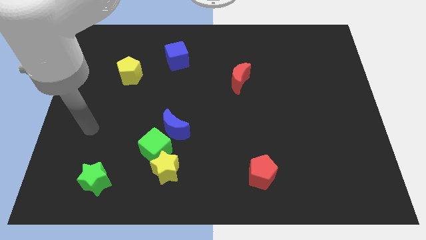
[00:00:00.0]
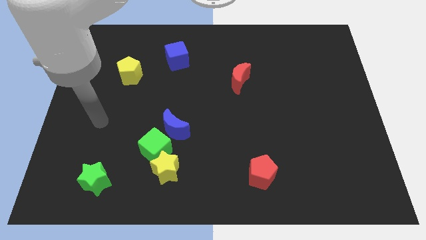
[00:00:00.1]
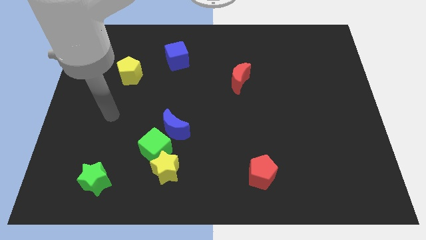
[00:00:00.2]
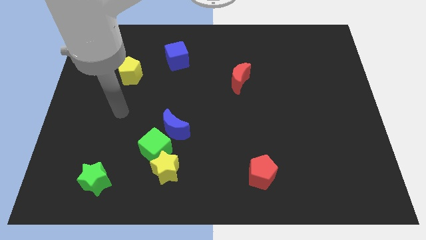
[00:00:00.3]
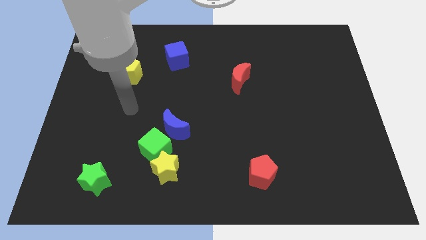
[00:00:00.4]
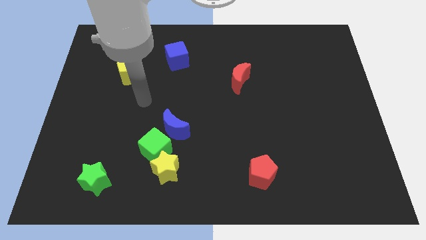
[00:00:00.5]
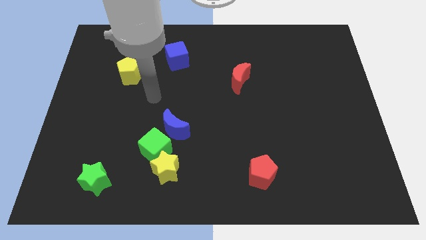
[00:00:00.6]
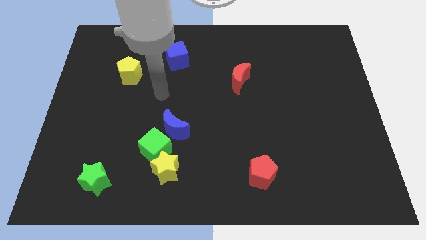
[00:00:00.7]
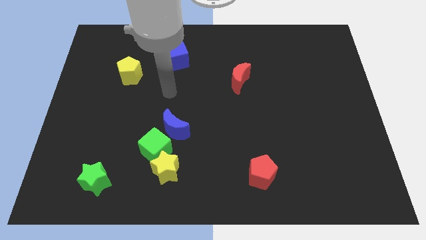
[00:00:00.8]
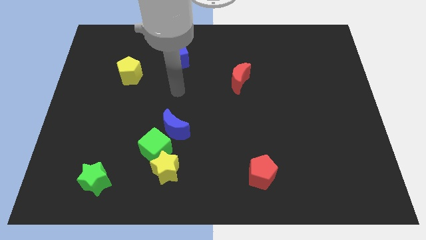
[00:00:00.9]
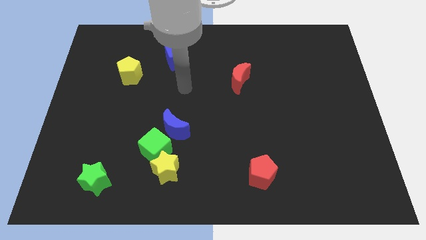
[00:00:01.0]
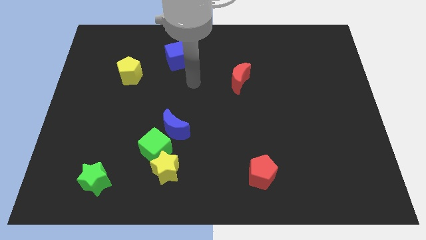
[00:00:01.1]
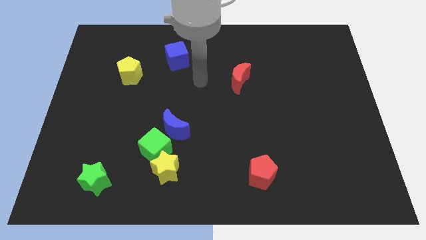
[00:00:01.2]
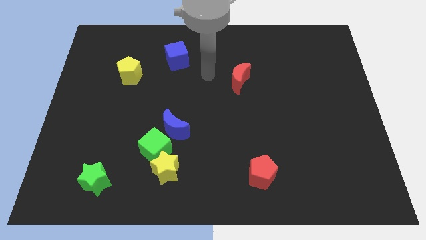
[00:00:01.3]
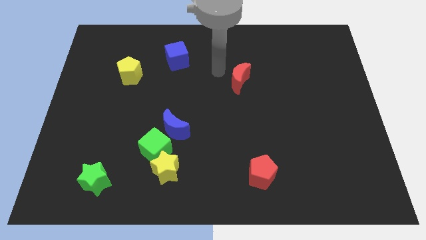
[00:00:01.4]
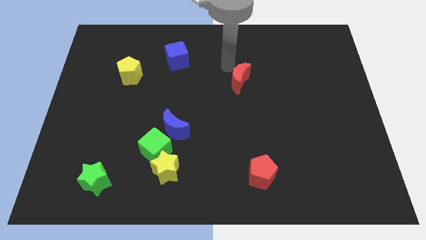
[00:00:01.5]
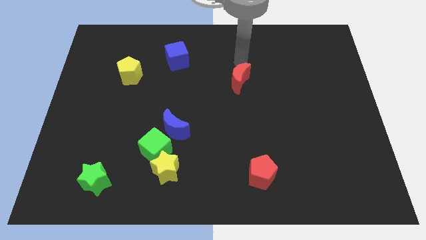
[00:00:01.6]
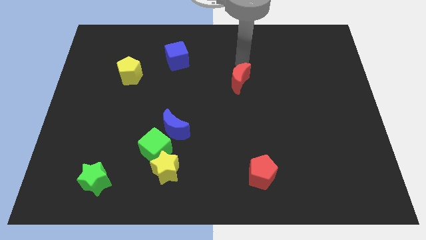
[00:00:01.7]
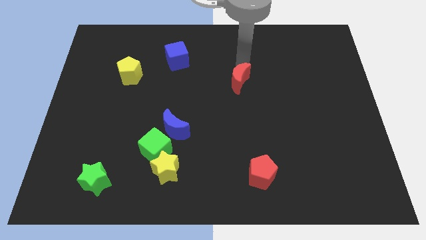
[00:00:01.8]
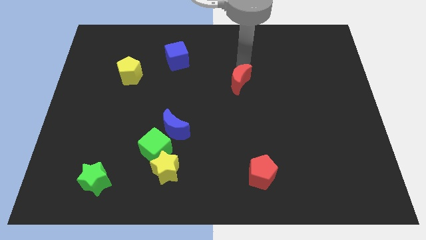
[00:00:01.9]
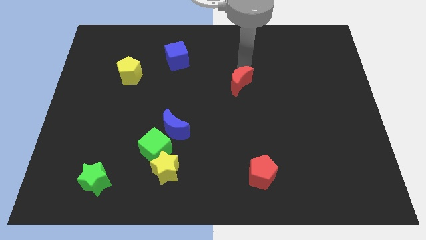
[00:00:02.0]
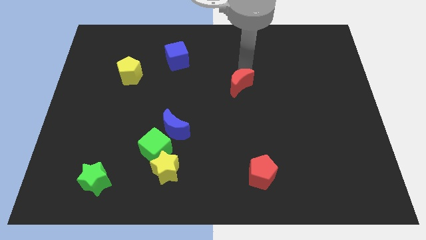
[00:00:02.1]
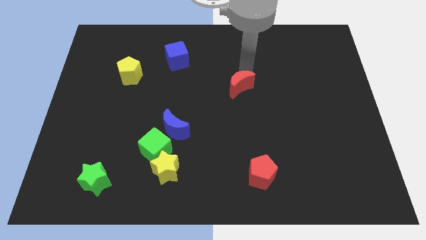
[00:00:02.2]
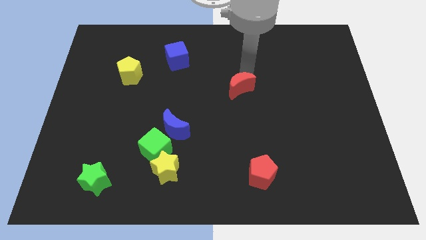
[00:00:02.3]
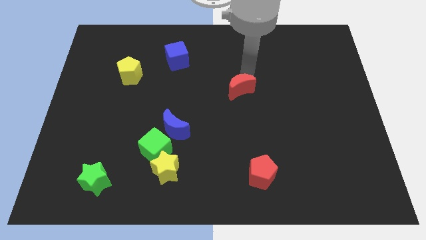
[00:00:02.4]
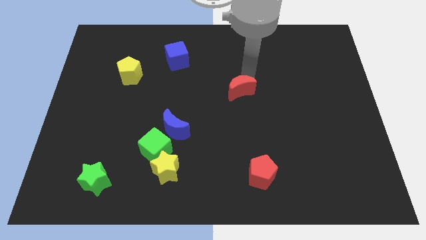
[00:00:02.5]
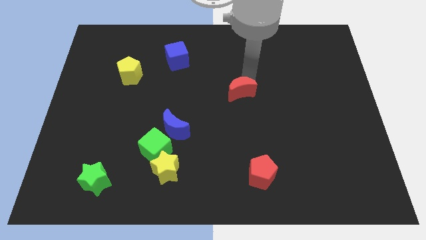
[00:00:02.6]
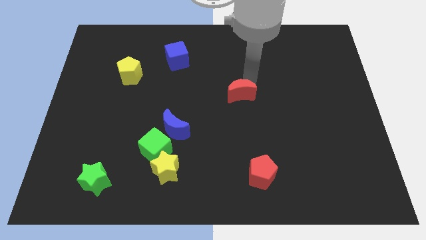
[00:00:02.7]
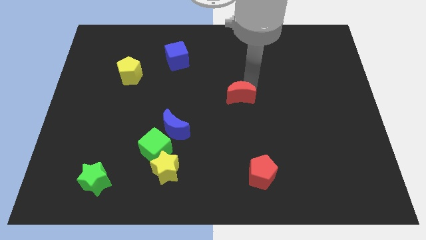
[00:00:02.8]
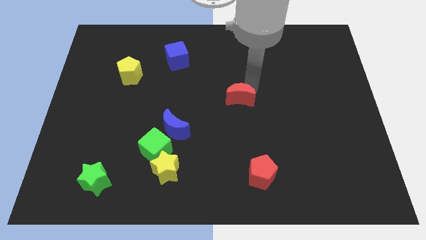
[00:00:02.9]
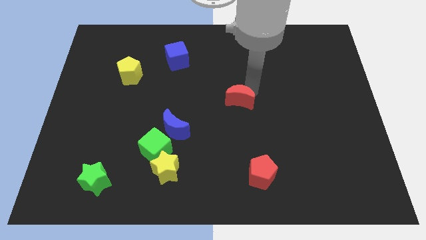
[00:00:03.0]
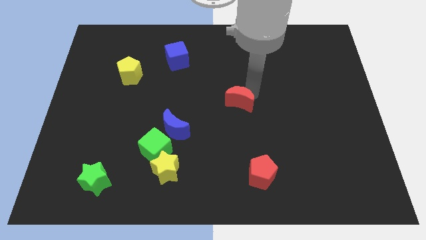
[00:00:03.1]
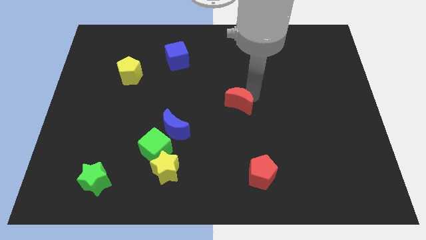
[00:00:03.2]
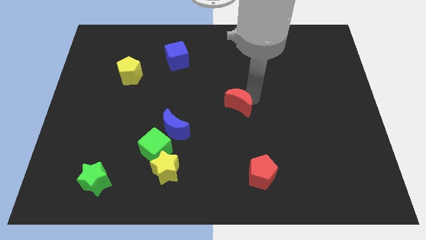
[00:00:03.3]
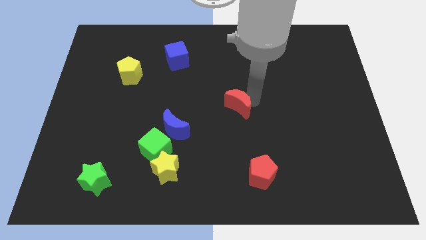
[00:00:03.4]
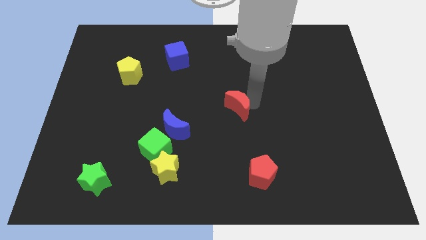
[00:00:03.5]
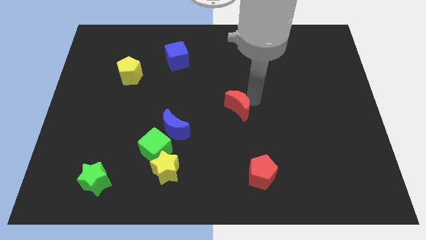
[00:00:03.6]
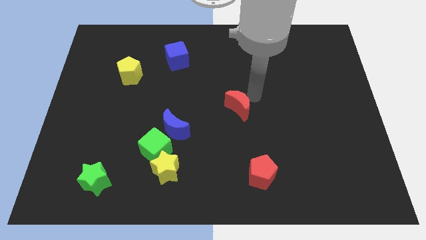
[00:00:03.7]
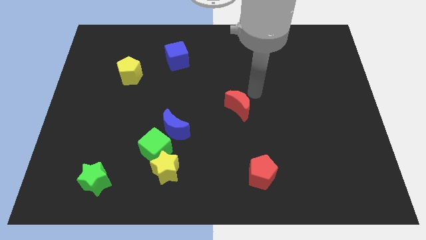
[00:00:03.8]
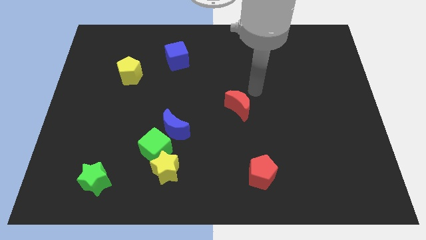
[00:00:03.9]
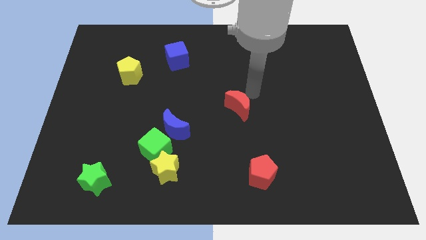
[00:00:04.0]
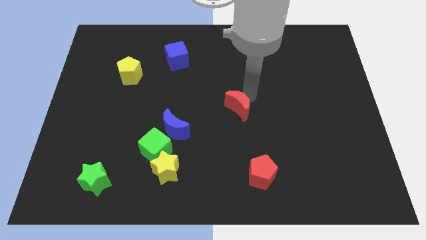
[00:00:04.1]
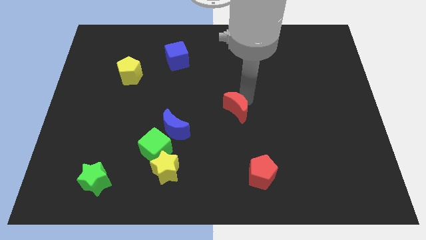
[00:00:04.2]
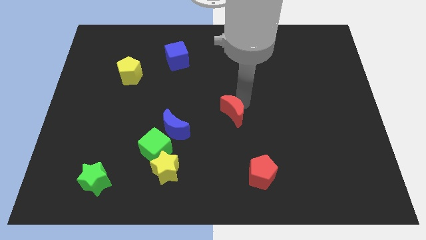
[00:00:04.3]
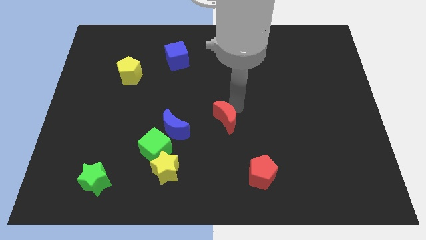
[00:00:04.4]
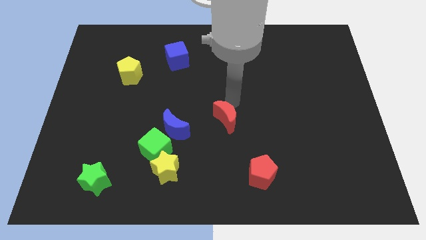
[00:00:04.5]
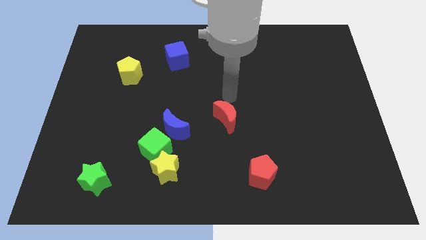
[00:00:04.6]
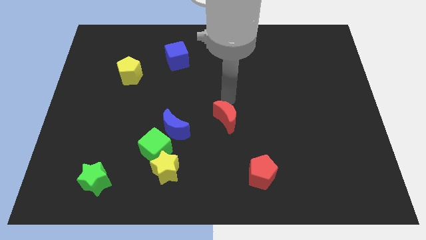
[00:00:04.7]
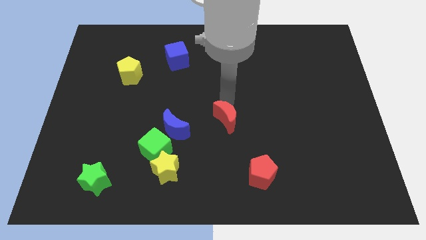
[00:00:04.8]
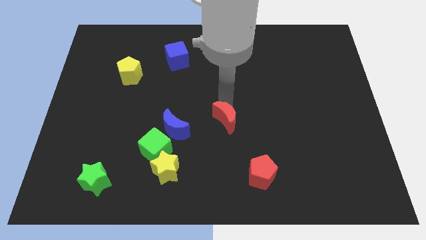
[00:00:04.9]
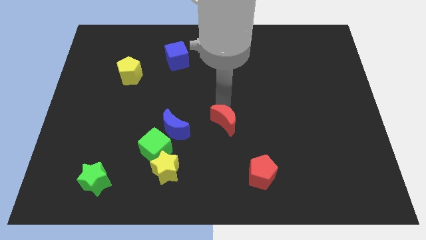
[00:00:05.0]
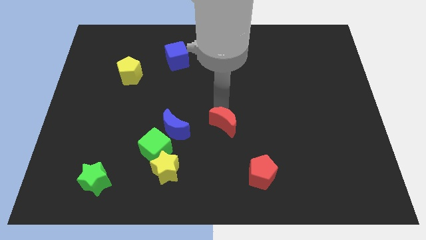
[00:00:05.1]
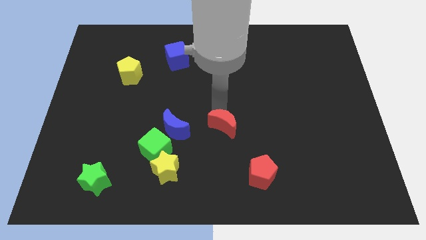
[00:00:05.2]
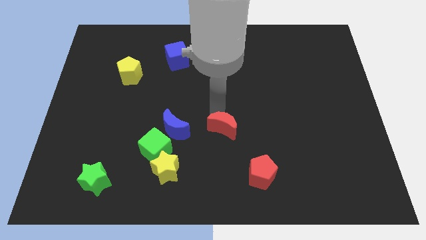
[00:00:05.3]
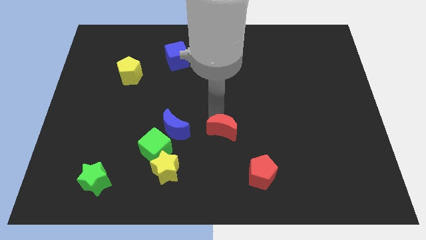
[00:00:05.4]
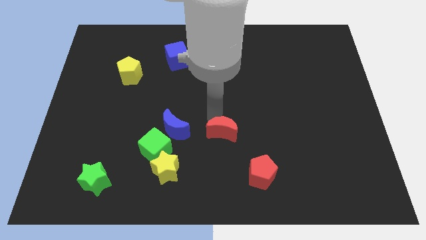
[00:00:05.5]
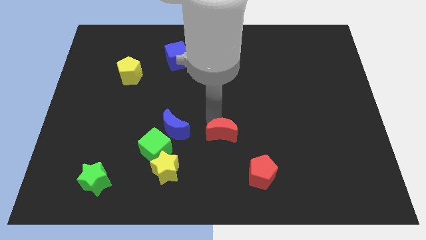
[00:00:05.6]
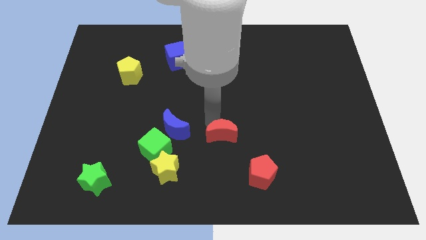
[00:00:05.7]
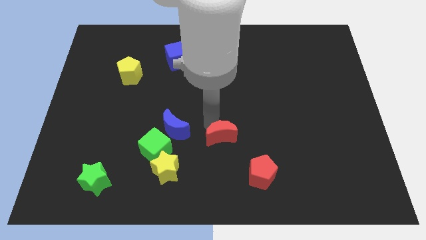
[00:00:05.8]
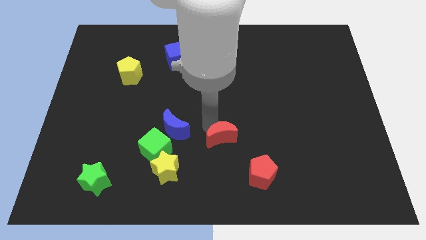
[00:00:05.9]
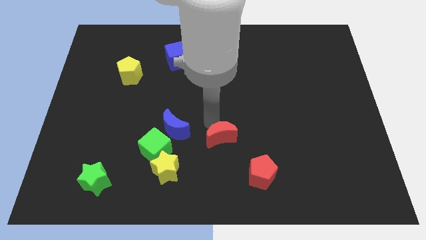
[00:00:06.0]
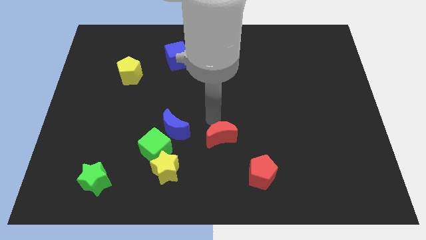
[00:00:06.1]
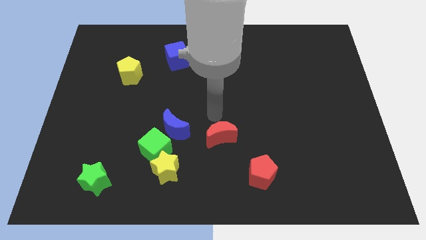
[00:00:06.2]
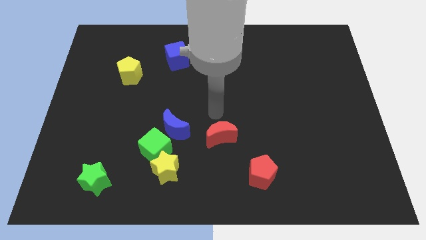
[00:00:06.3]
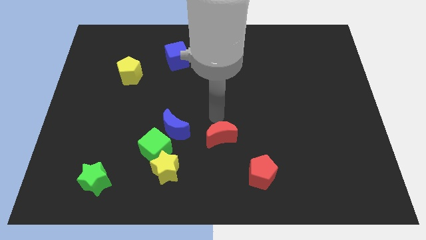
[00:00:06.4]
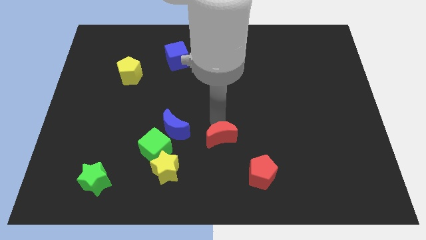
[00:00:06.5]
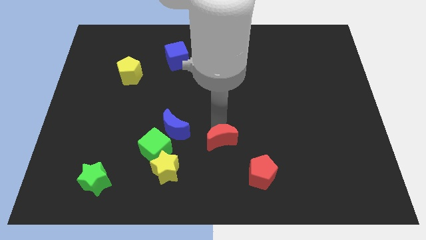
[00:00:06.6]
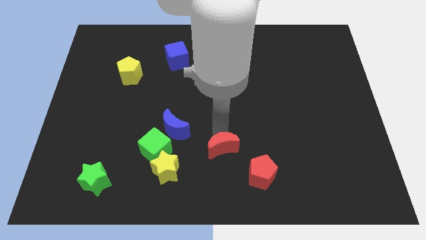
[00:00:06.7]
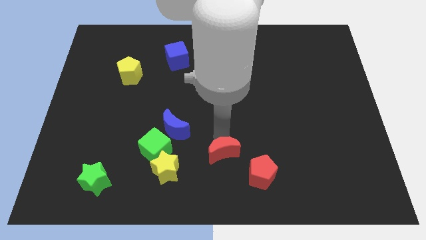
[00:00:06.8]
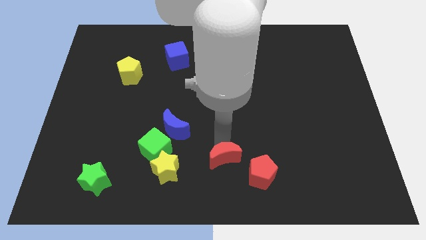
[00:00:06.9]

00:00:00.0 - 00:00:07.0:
slide the red moon to the bottom
